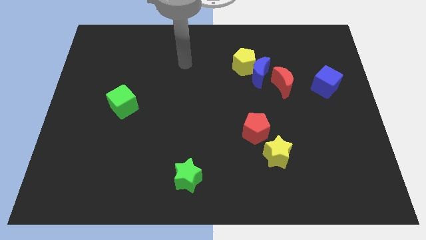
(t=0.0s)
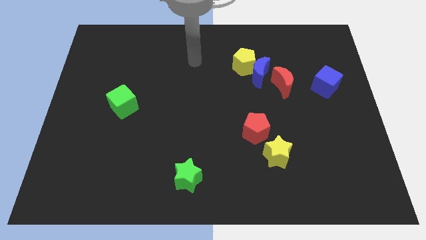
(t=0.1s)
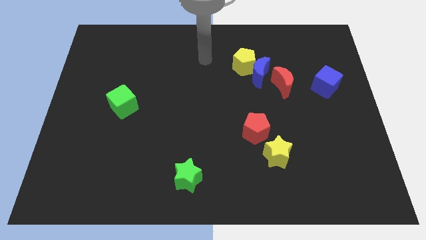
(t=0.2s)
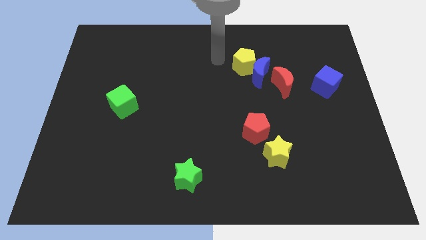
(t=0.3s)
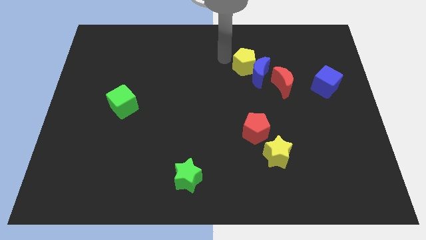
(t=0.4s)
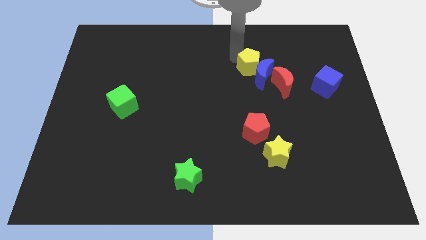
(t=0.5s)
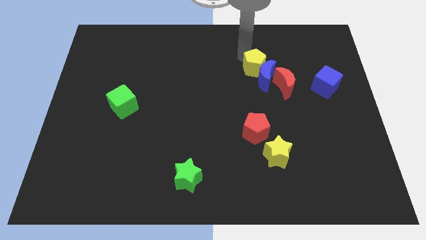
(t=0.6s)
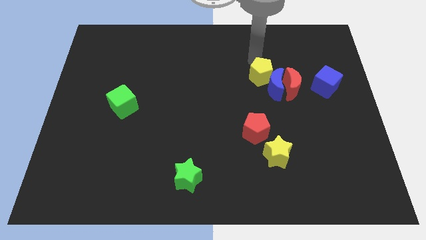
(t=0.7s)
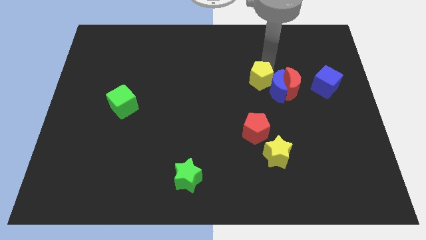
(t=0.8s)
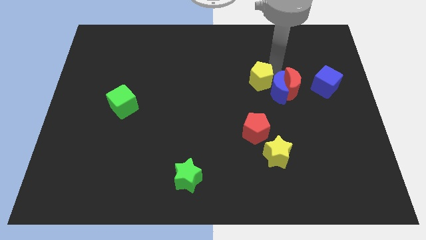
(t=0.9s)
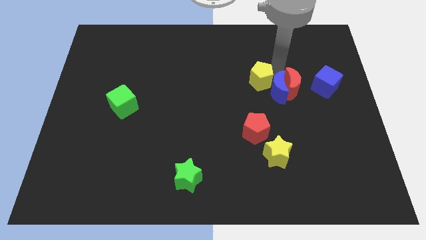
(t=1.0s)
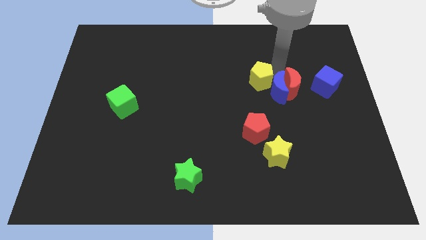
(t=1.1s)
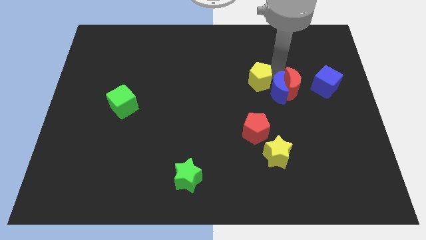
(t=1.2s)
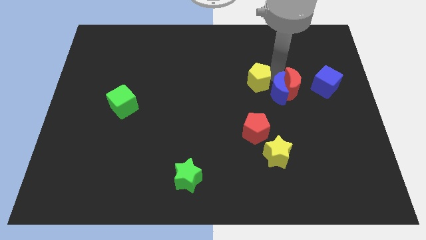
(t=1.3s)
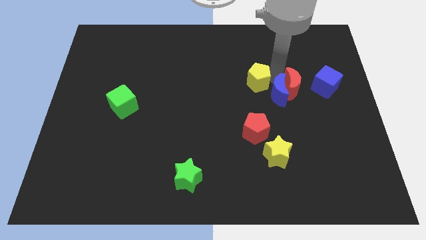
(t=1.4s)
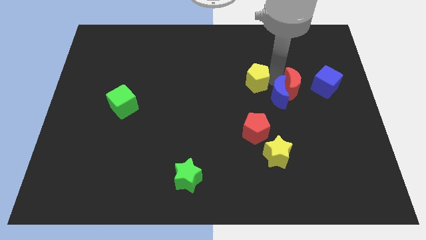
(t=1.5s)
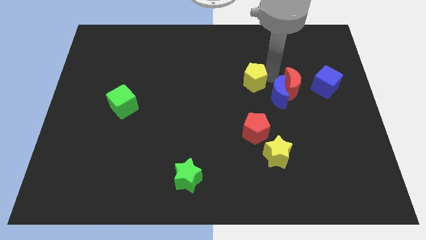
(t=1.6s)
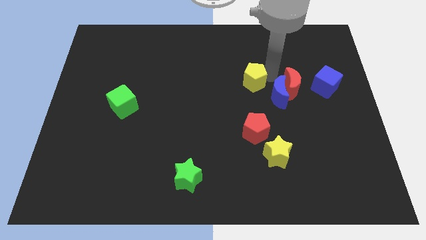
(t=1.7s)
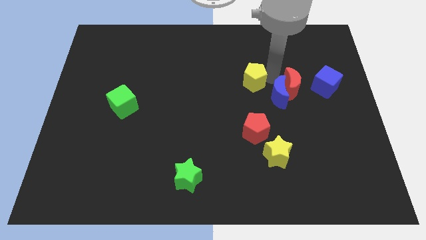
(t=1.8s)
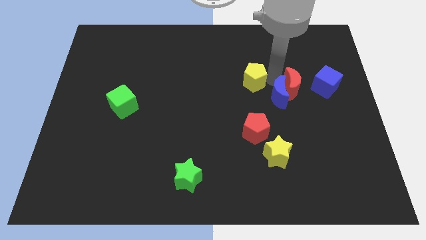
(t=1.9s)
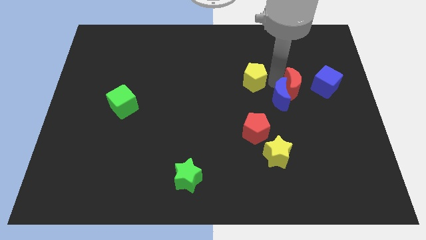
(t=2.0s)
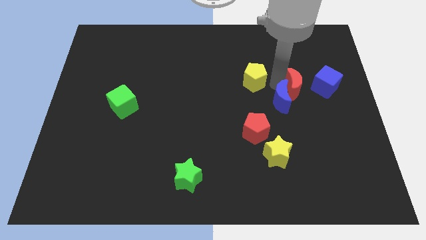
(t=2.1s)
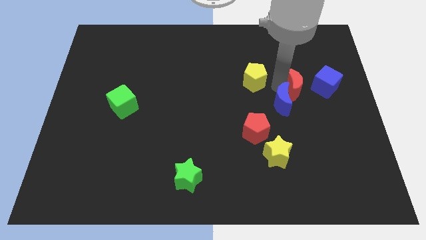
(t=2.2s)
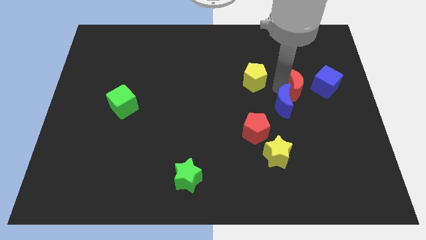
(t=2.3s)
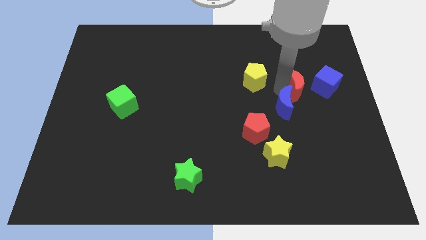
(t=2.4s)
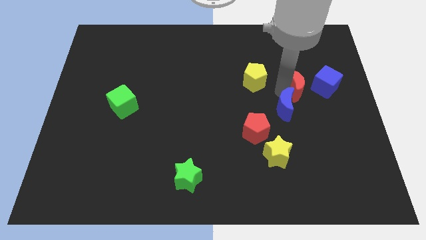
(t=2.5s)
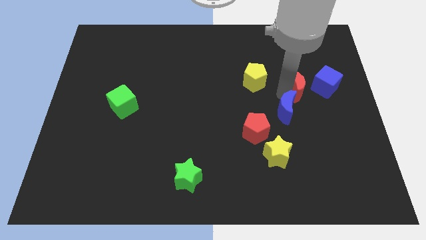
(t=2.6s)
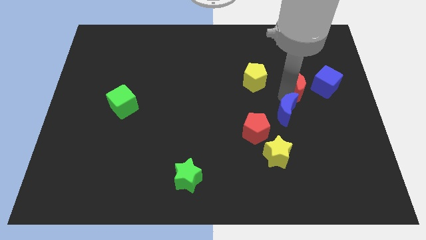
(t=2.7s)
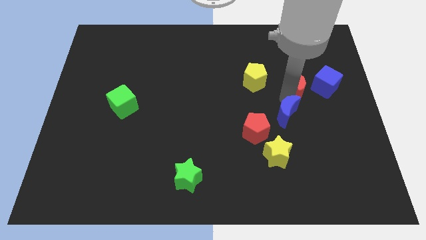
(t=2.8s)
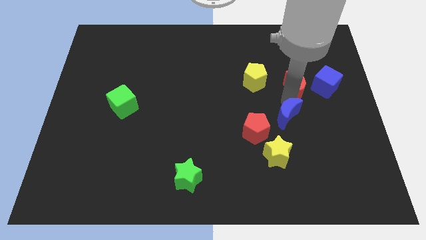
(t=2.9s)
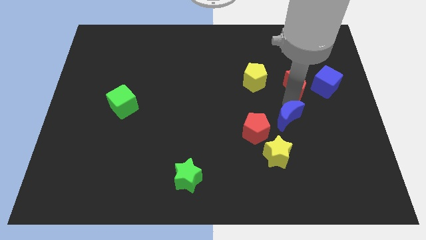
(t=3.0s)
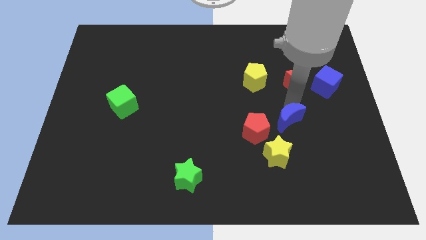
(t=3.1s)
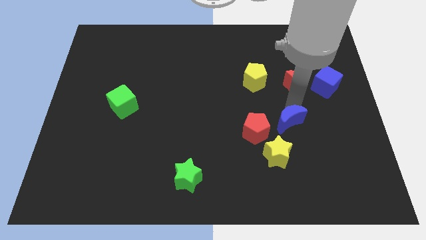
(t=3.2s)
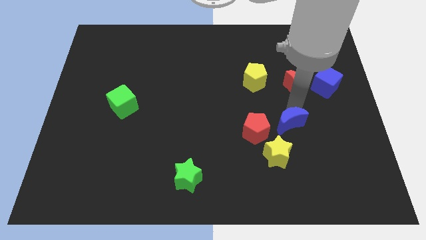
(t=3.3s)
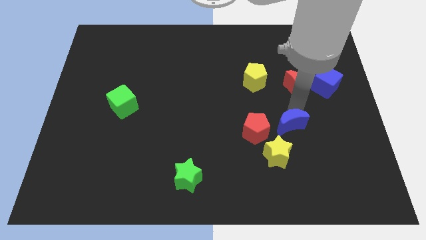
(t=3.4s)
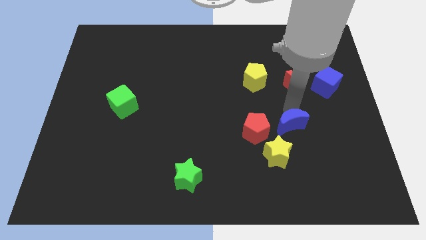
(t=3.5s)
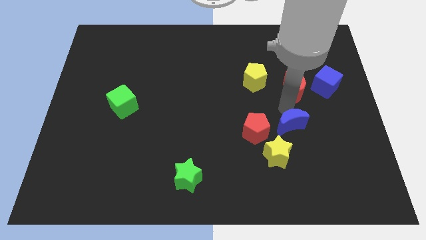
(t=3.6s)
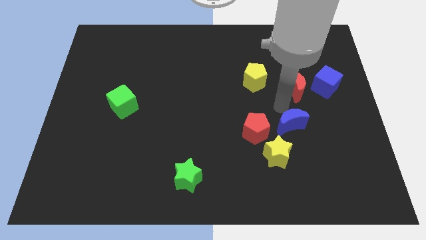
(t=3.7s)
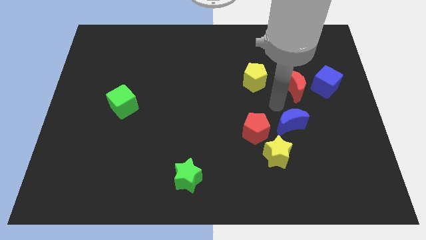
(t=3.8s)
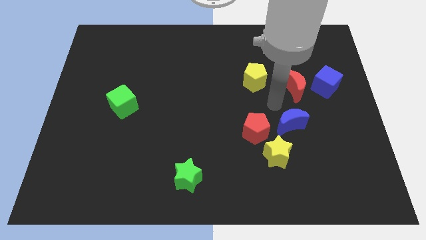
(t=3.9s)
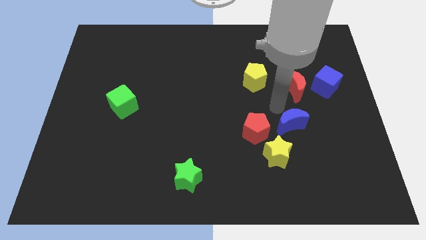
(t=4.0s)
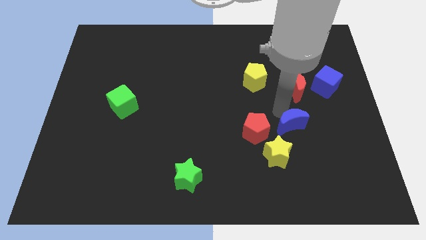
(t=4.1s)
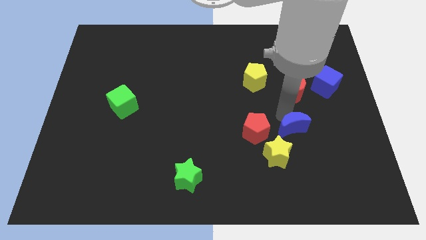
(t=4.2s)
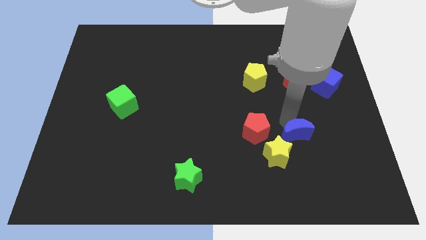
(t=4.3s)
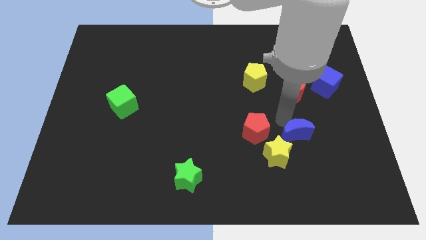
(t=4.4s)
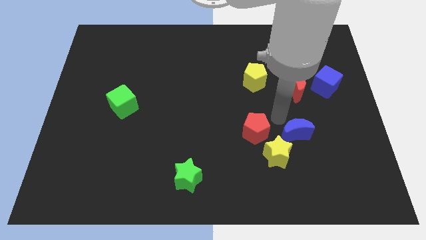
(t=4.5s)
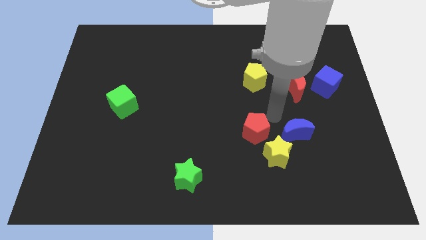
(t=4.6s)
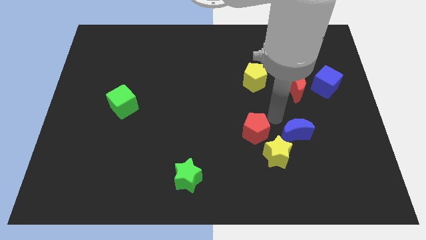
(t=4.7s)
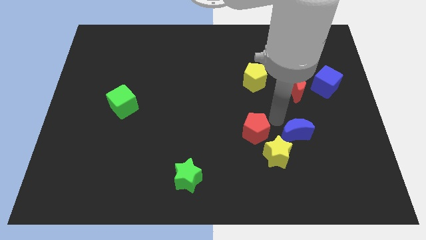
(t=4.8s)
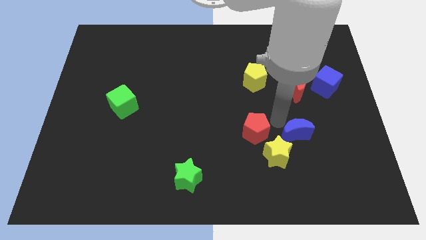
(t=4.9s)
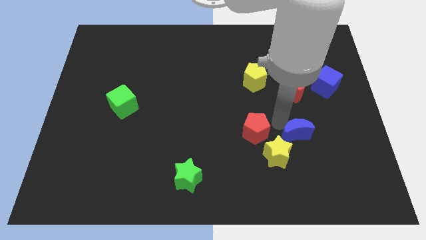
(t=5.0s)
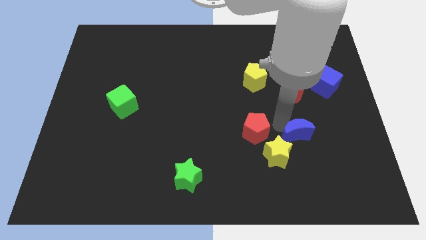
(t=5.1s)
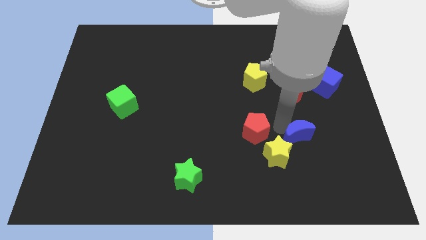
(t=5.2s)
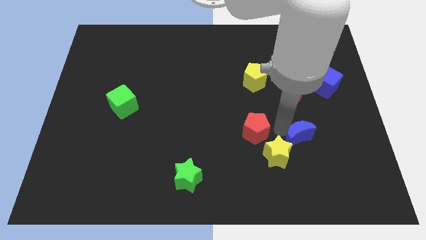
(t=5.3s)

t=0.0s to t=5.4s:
slide the blue moon to the right side of the yellow star

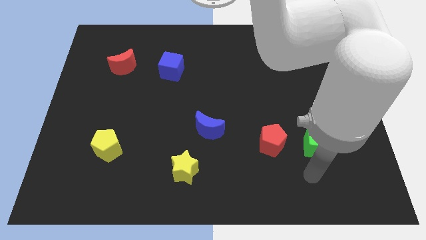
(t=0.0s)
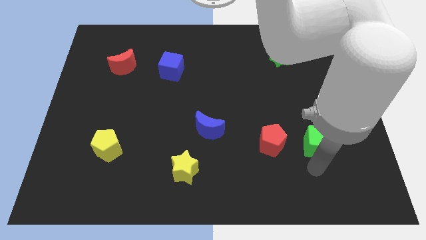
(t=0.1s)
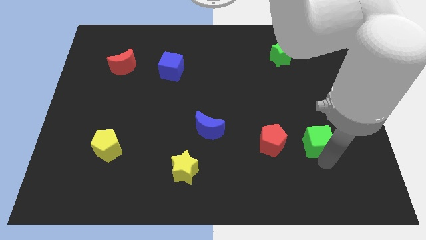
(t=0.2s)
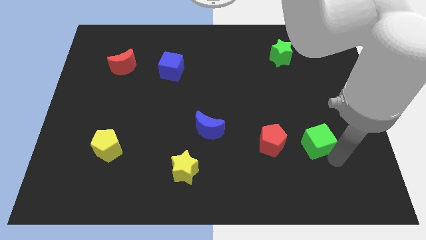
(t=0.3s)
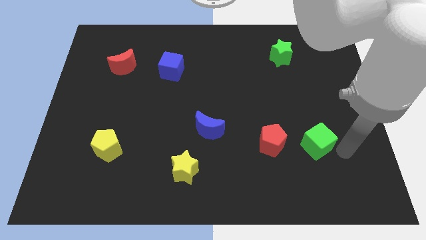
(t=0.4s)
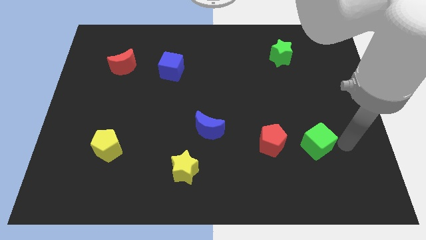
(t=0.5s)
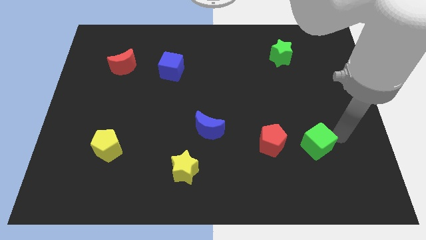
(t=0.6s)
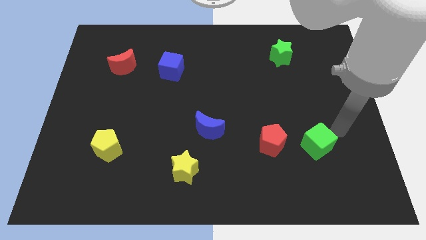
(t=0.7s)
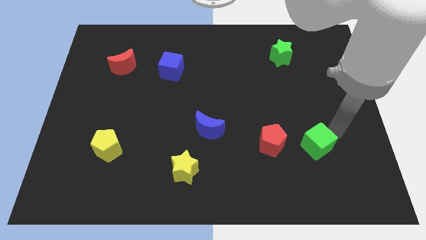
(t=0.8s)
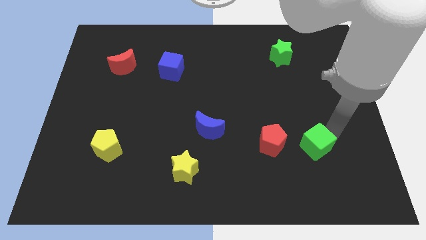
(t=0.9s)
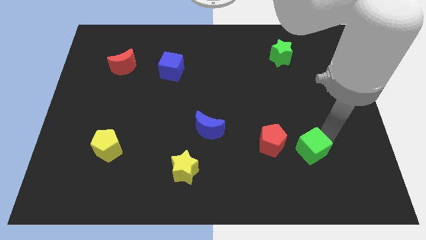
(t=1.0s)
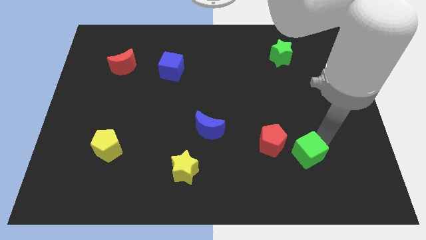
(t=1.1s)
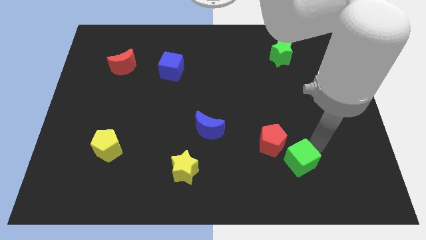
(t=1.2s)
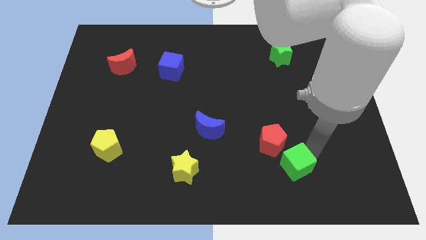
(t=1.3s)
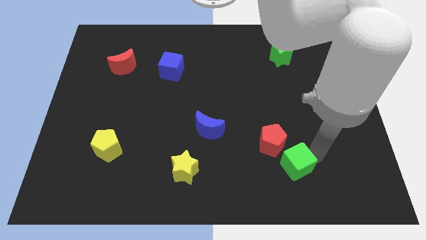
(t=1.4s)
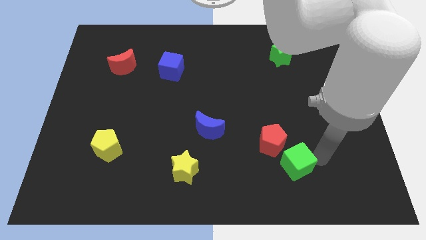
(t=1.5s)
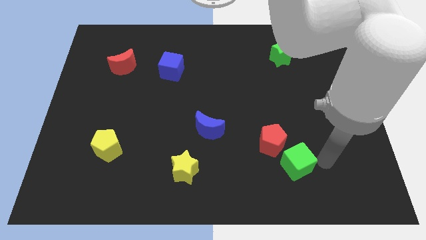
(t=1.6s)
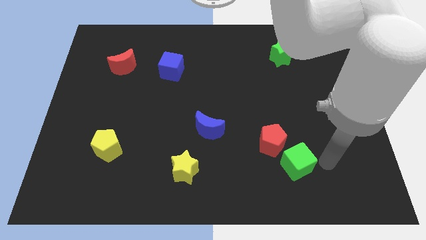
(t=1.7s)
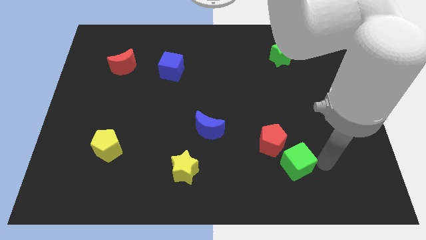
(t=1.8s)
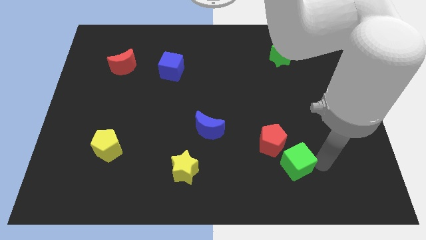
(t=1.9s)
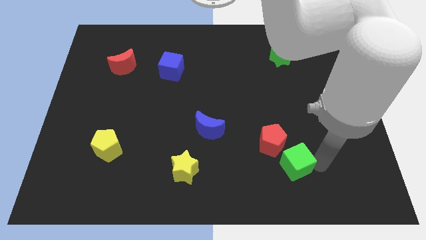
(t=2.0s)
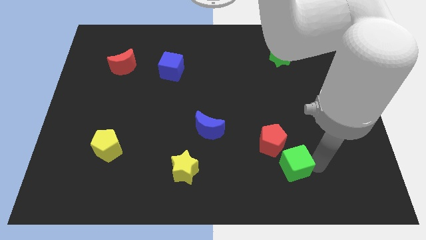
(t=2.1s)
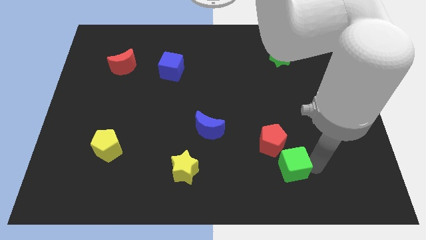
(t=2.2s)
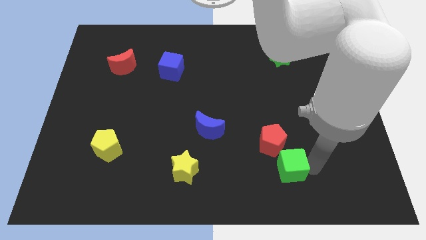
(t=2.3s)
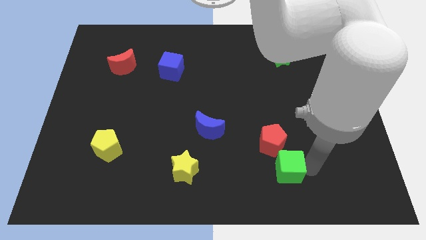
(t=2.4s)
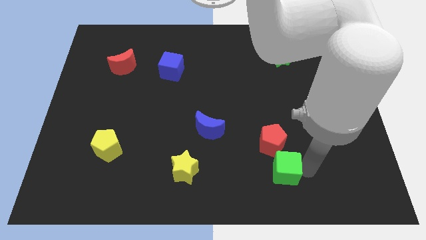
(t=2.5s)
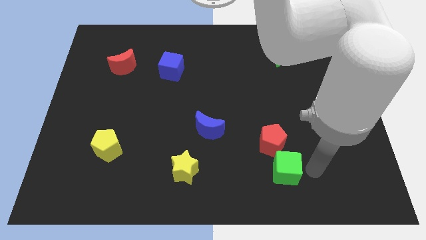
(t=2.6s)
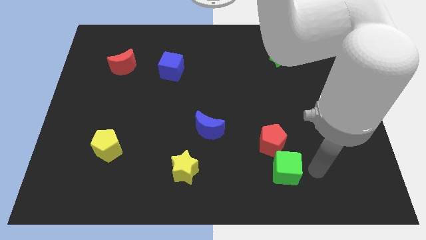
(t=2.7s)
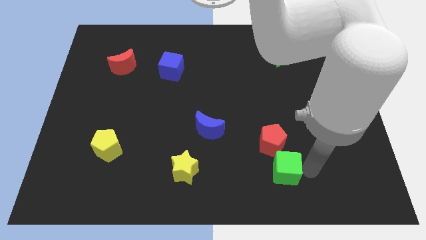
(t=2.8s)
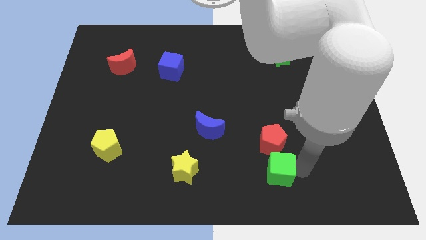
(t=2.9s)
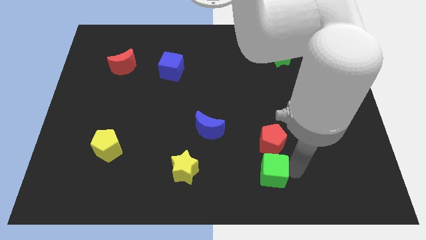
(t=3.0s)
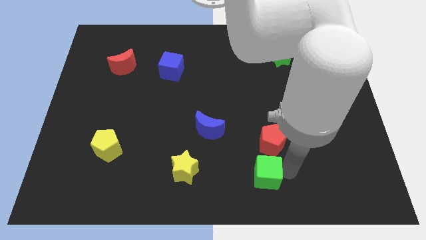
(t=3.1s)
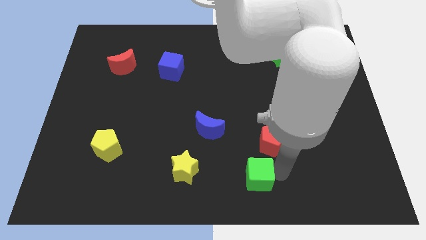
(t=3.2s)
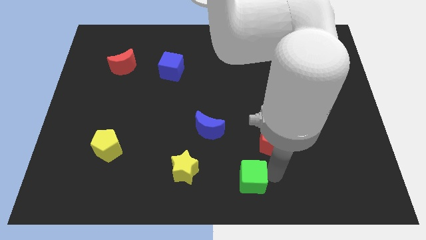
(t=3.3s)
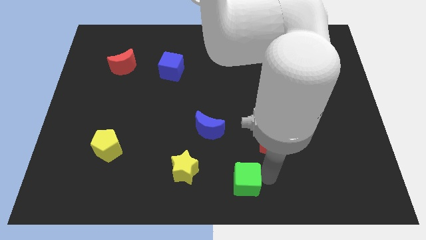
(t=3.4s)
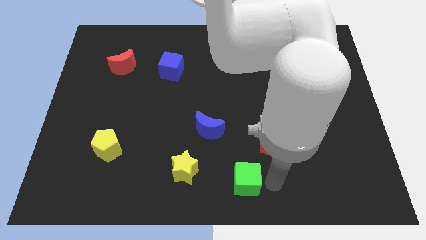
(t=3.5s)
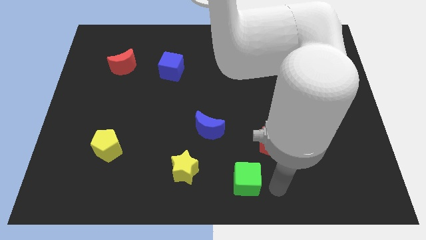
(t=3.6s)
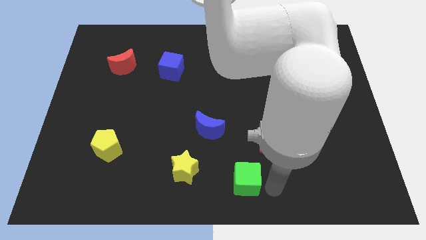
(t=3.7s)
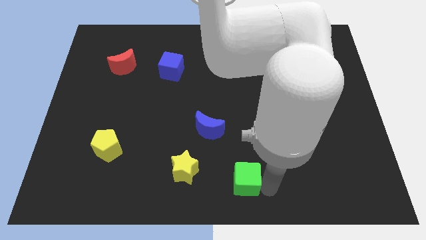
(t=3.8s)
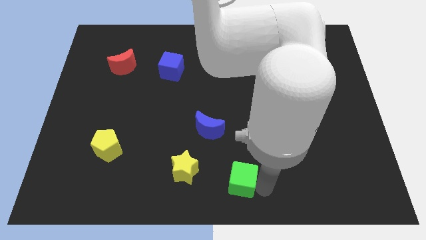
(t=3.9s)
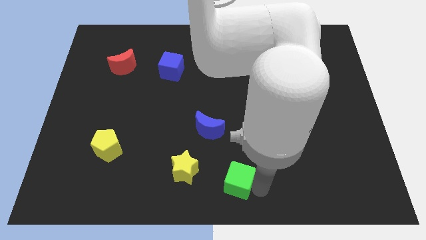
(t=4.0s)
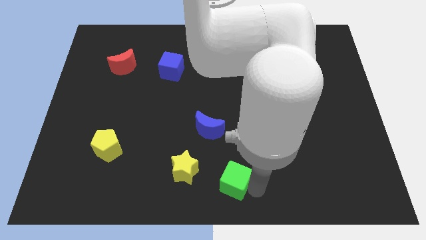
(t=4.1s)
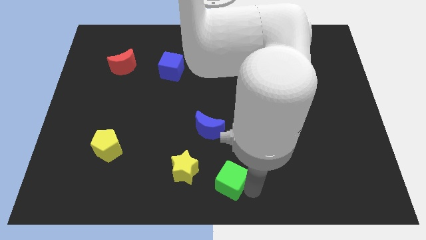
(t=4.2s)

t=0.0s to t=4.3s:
slide the green cube below the blue moon
